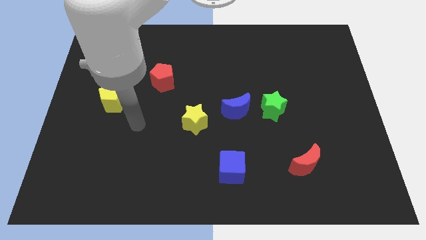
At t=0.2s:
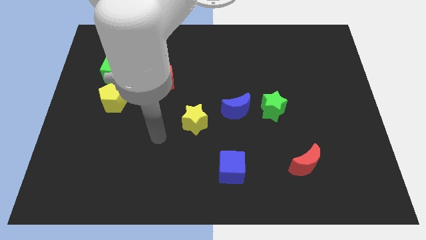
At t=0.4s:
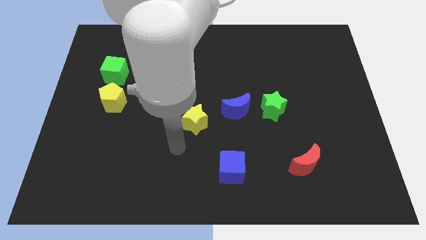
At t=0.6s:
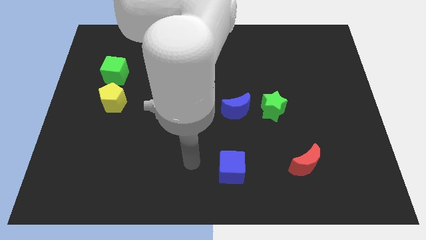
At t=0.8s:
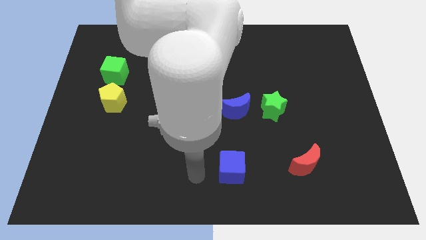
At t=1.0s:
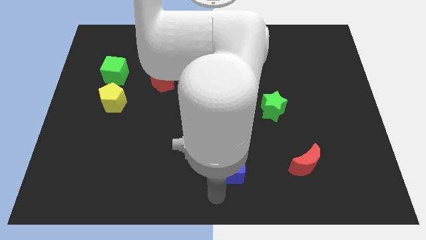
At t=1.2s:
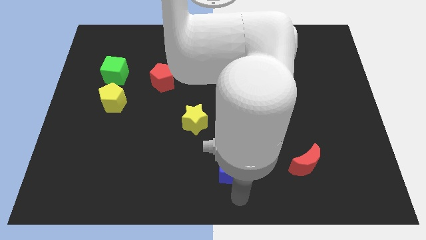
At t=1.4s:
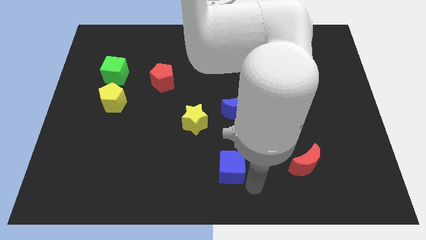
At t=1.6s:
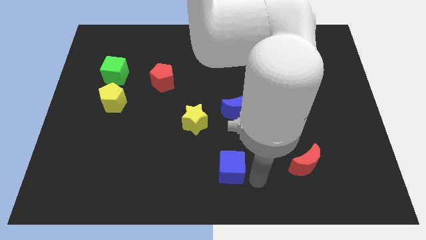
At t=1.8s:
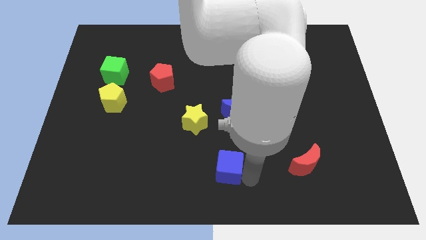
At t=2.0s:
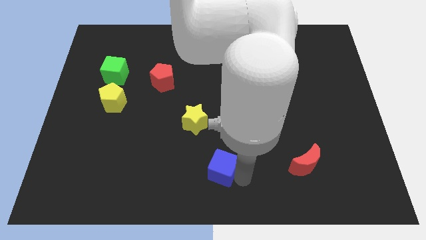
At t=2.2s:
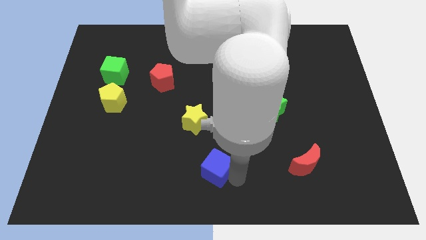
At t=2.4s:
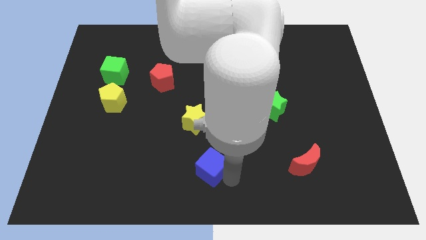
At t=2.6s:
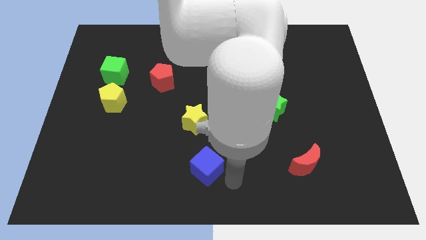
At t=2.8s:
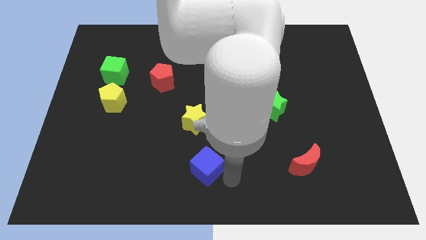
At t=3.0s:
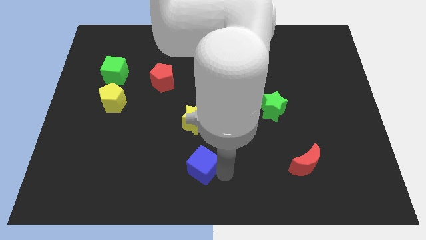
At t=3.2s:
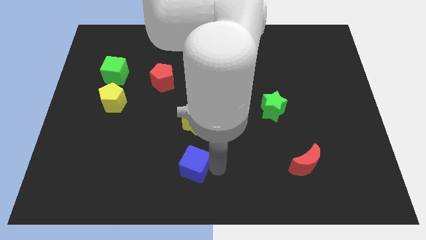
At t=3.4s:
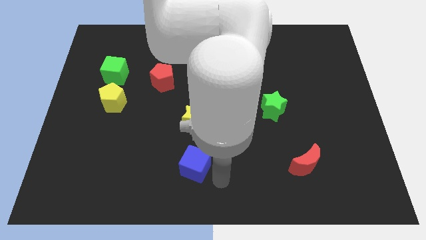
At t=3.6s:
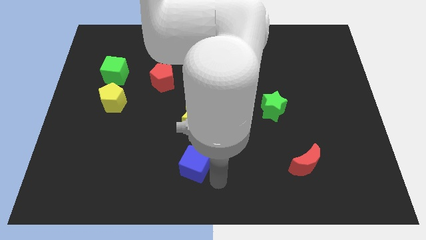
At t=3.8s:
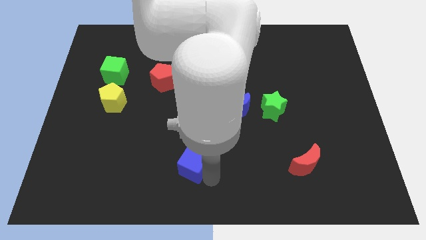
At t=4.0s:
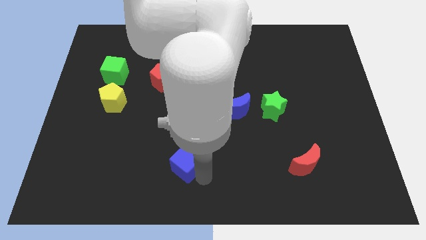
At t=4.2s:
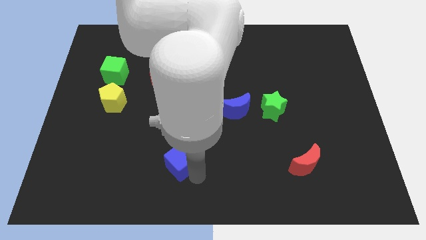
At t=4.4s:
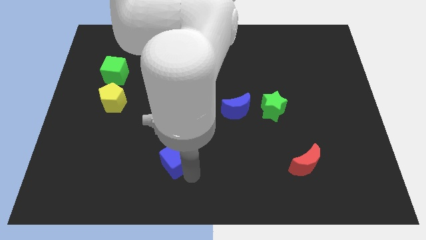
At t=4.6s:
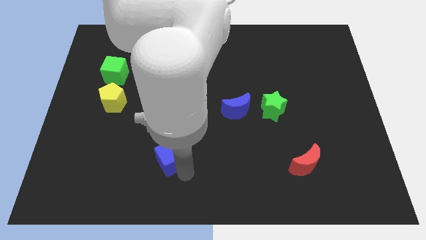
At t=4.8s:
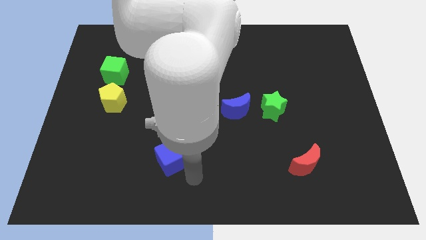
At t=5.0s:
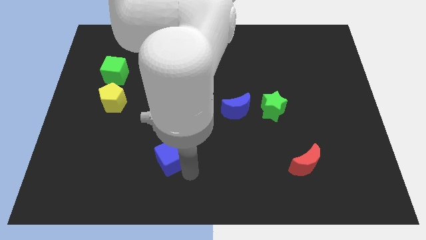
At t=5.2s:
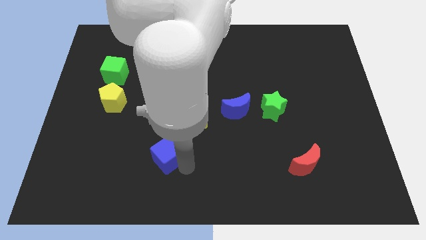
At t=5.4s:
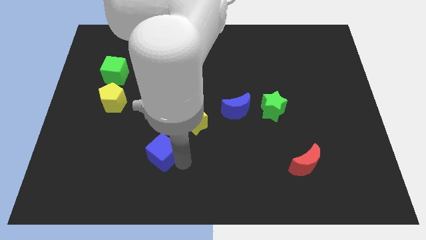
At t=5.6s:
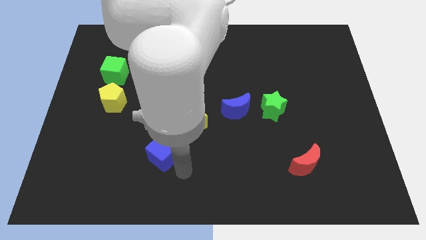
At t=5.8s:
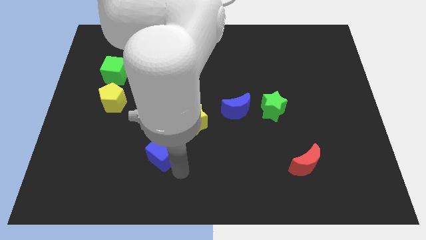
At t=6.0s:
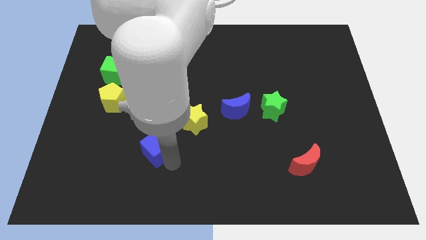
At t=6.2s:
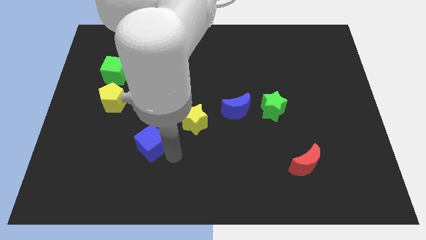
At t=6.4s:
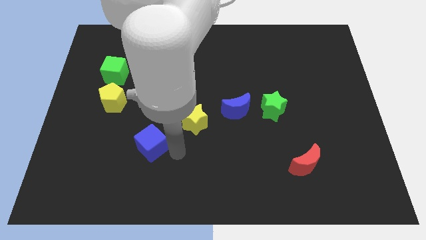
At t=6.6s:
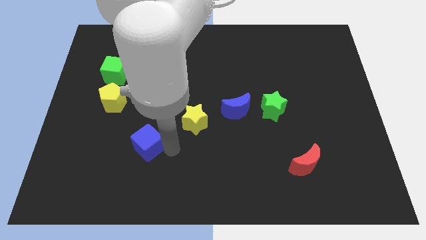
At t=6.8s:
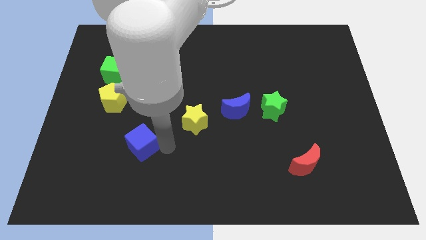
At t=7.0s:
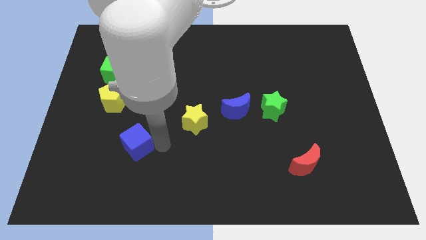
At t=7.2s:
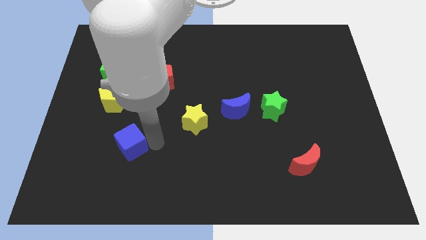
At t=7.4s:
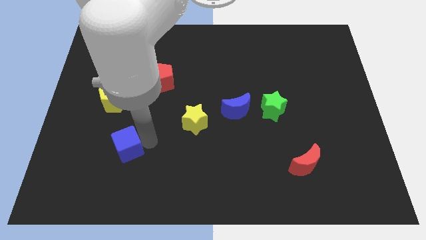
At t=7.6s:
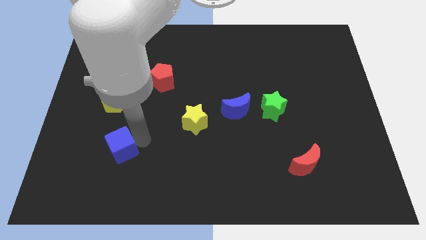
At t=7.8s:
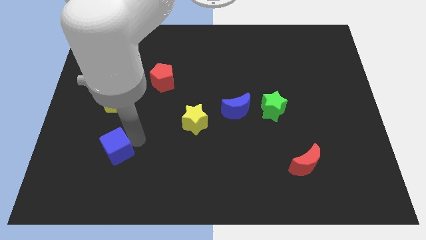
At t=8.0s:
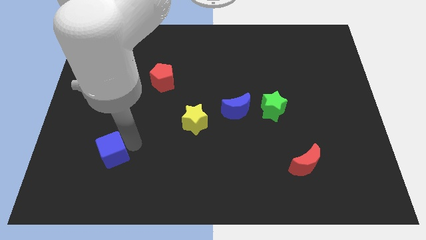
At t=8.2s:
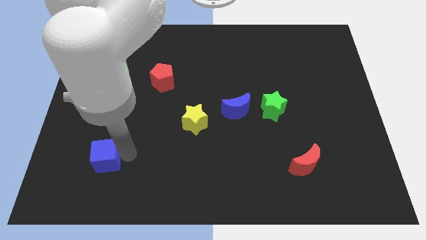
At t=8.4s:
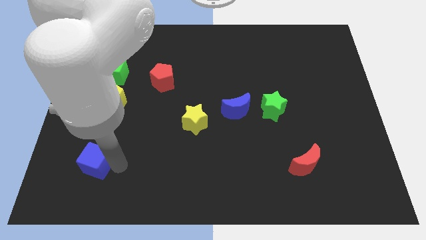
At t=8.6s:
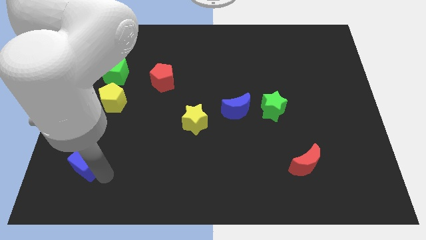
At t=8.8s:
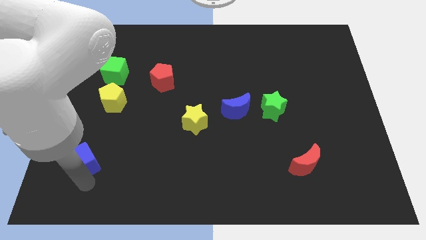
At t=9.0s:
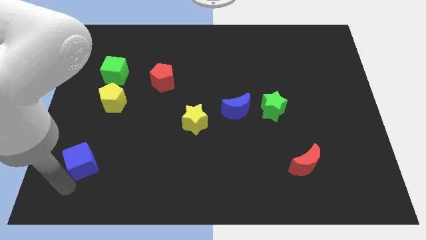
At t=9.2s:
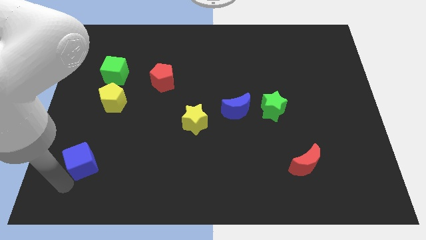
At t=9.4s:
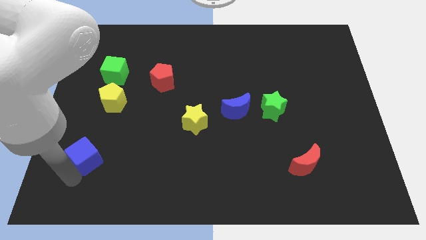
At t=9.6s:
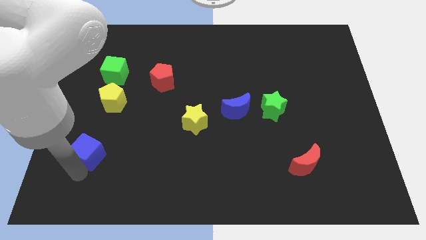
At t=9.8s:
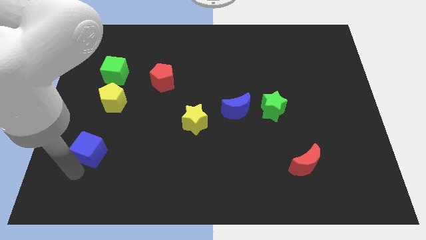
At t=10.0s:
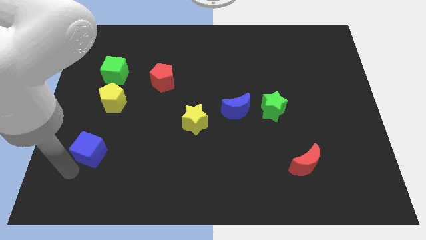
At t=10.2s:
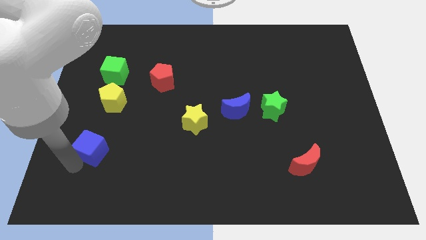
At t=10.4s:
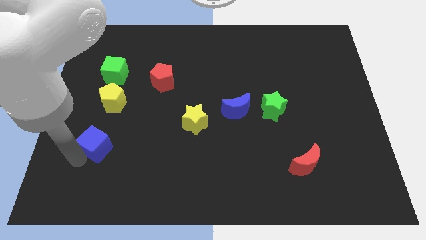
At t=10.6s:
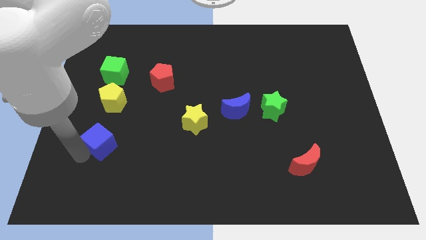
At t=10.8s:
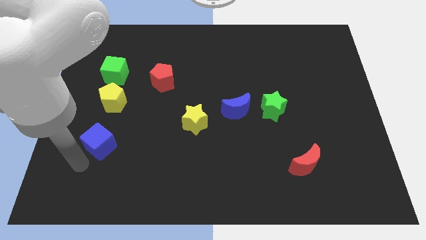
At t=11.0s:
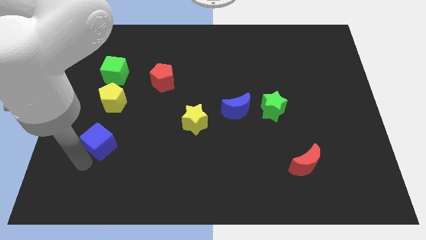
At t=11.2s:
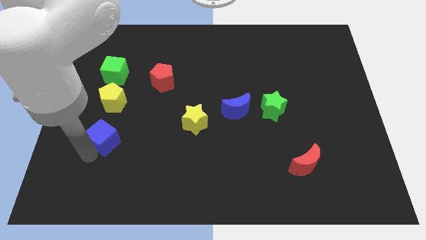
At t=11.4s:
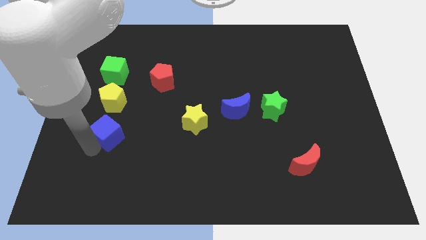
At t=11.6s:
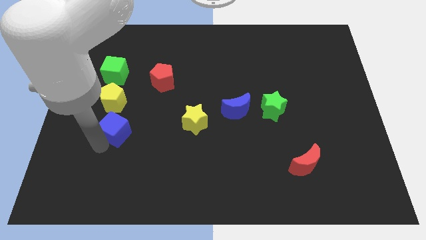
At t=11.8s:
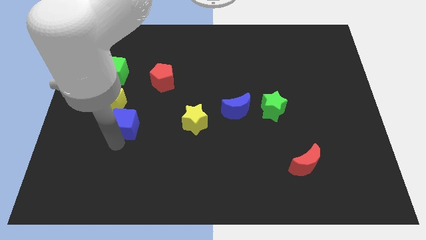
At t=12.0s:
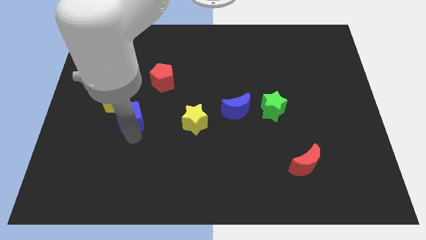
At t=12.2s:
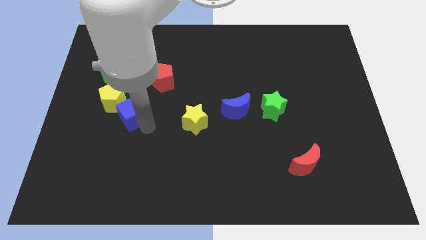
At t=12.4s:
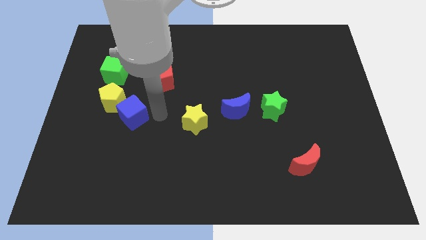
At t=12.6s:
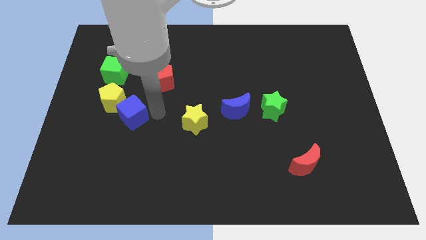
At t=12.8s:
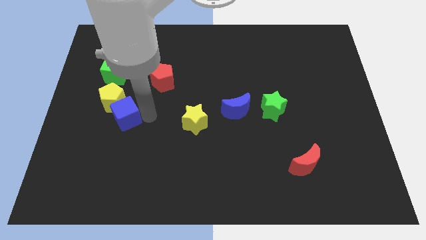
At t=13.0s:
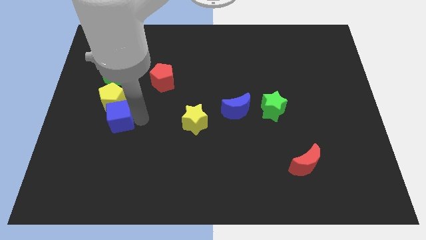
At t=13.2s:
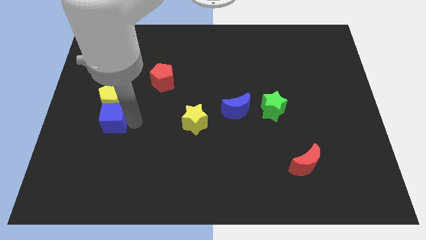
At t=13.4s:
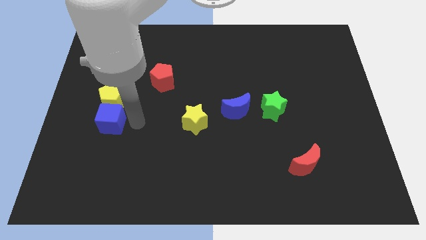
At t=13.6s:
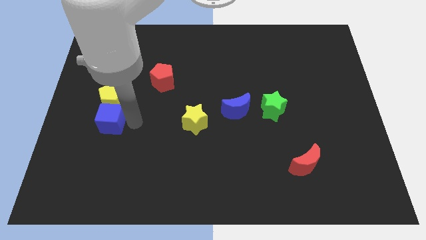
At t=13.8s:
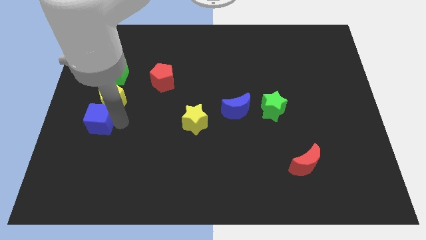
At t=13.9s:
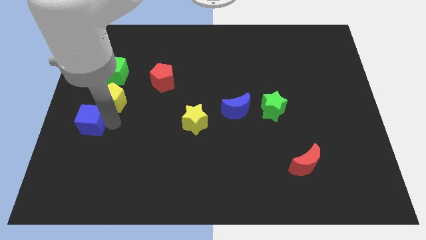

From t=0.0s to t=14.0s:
push the blue cube to the center left
